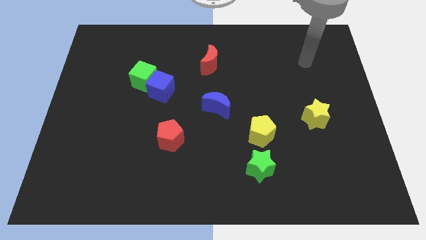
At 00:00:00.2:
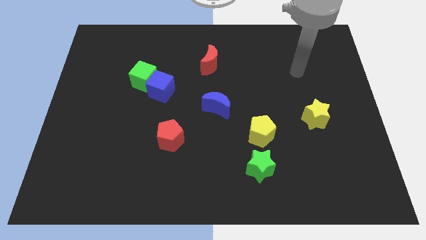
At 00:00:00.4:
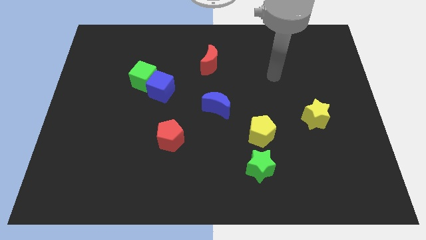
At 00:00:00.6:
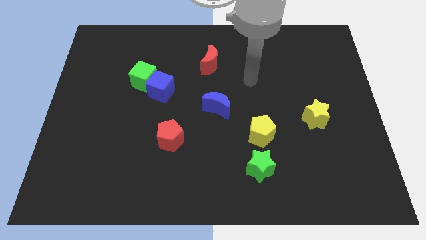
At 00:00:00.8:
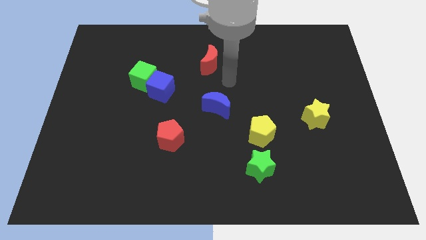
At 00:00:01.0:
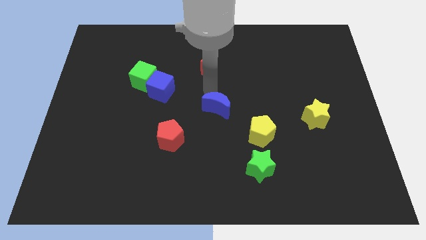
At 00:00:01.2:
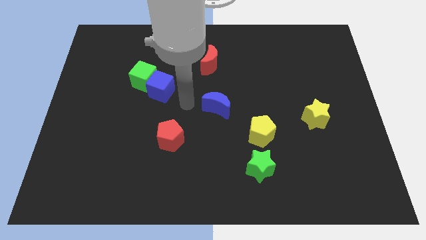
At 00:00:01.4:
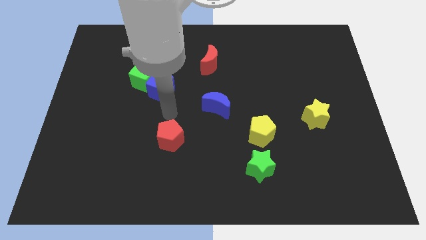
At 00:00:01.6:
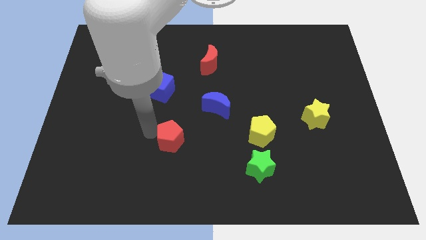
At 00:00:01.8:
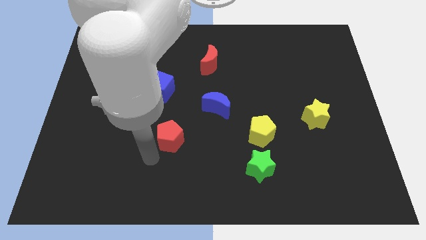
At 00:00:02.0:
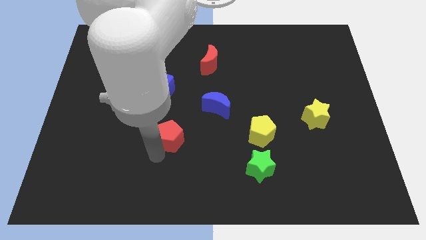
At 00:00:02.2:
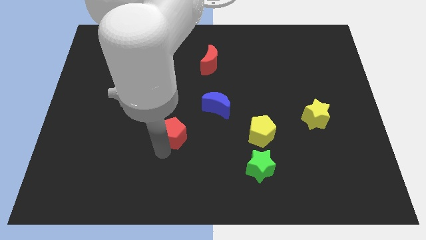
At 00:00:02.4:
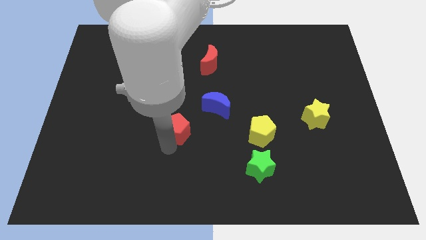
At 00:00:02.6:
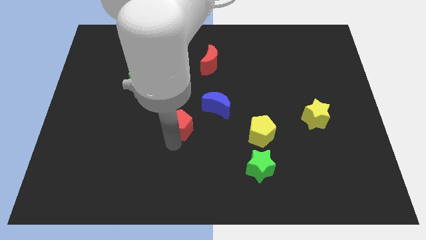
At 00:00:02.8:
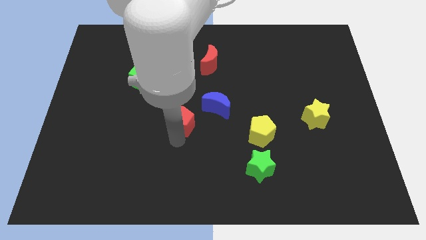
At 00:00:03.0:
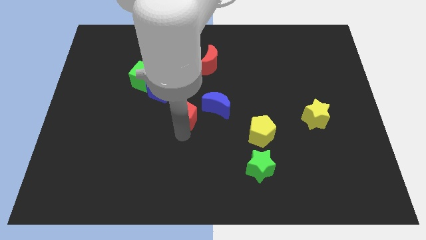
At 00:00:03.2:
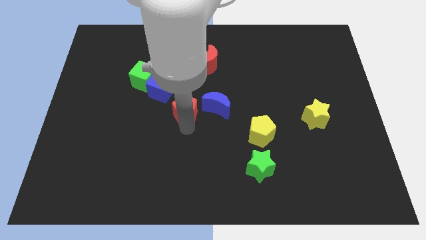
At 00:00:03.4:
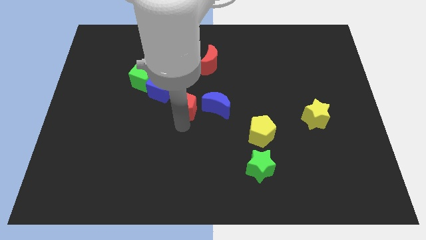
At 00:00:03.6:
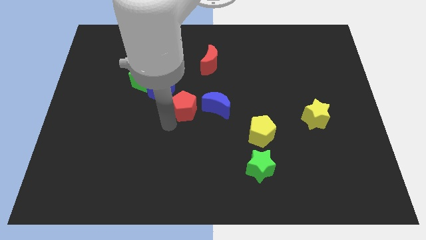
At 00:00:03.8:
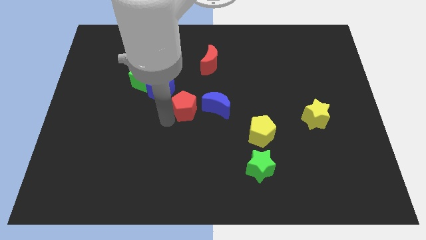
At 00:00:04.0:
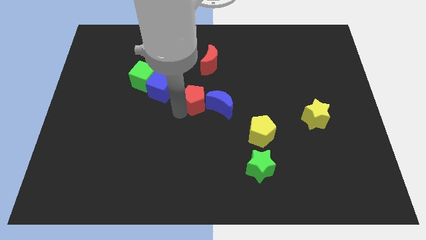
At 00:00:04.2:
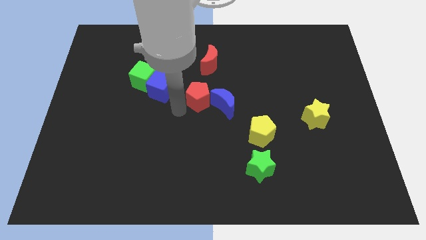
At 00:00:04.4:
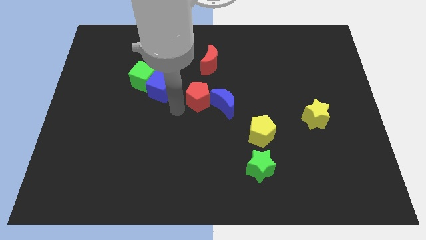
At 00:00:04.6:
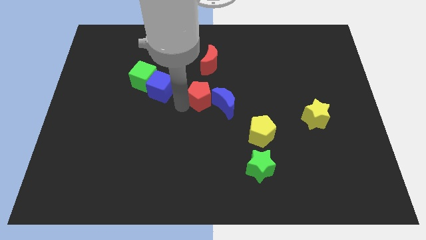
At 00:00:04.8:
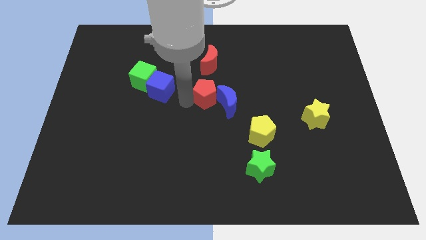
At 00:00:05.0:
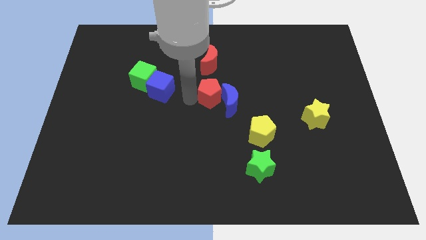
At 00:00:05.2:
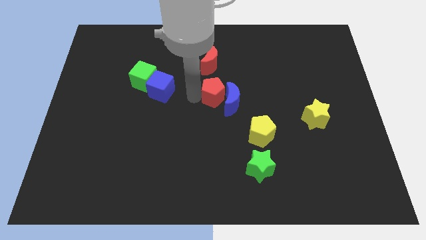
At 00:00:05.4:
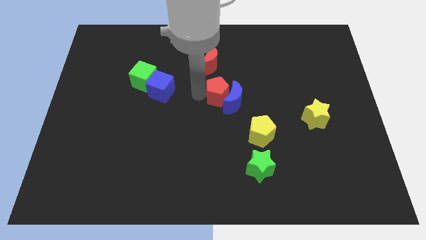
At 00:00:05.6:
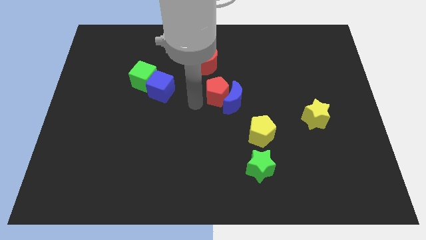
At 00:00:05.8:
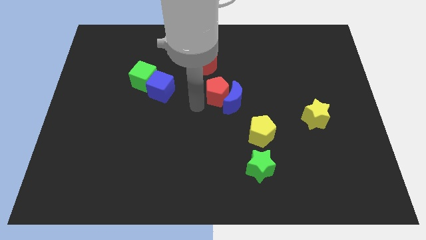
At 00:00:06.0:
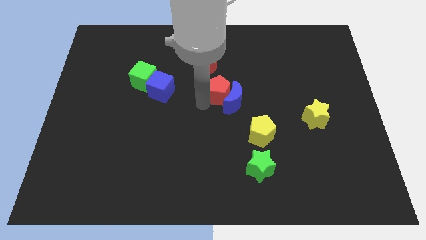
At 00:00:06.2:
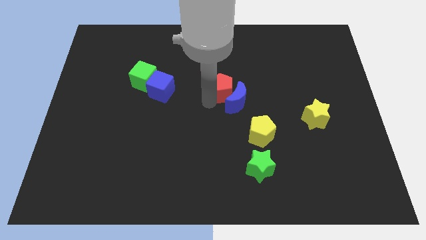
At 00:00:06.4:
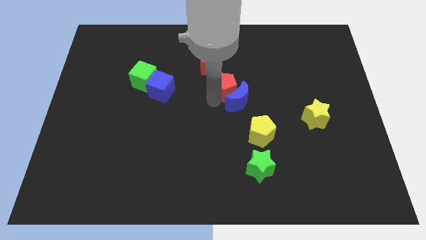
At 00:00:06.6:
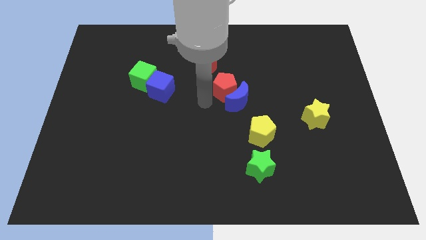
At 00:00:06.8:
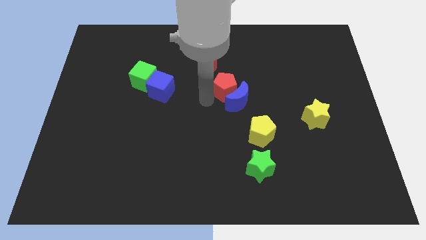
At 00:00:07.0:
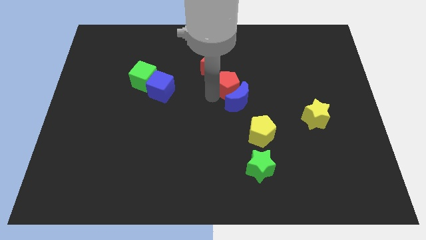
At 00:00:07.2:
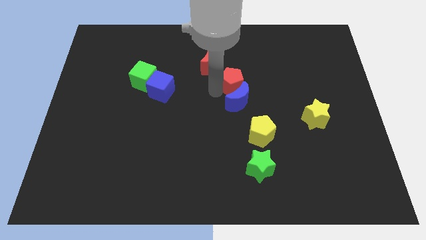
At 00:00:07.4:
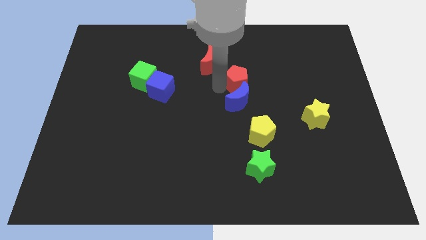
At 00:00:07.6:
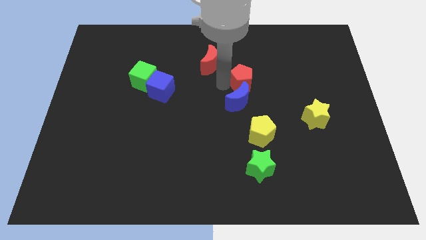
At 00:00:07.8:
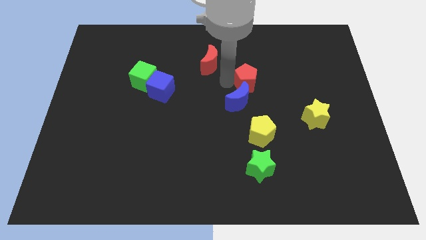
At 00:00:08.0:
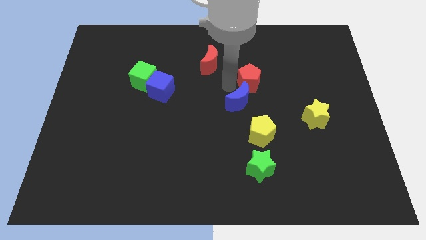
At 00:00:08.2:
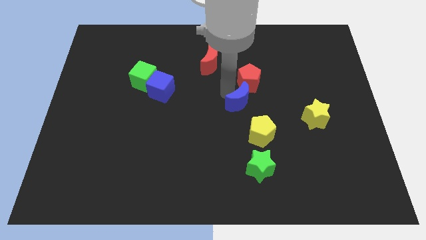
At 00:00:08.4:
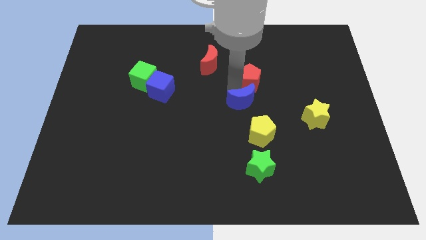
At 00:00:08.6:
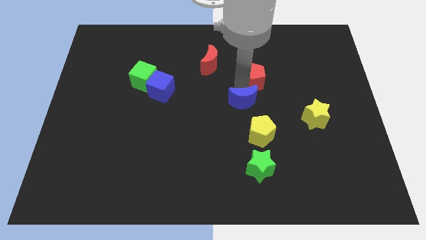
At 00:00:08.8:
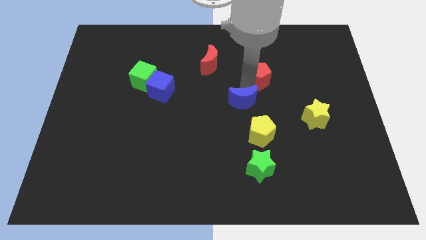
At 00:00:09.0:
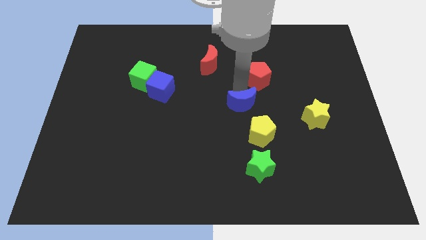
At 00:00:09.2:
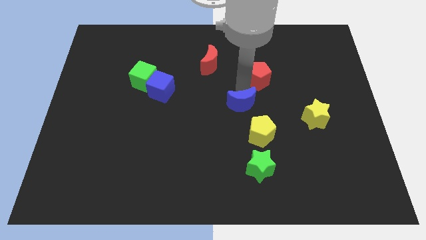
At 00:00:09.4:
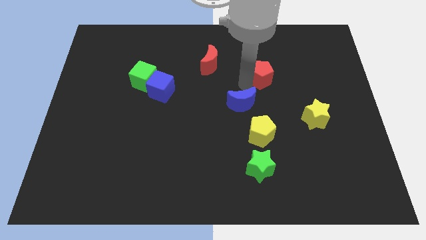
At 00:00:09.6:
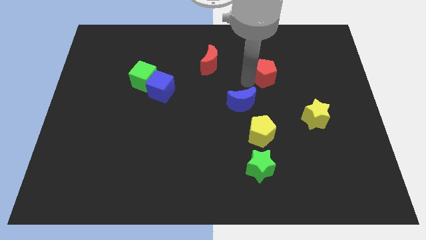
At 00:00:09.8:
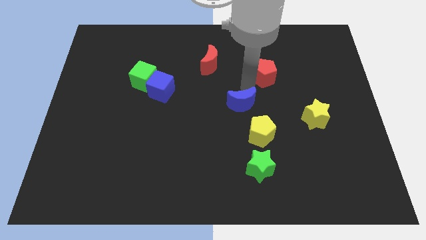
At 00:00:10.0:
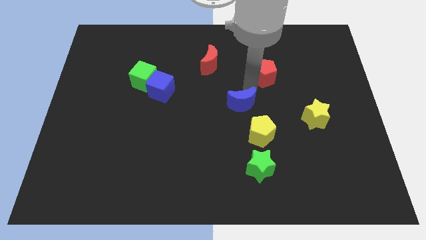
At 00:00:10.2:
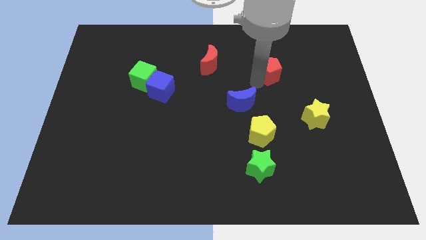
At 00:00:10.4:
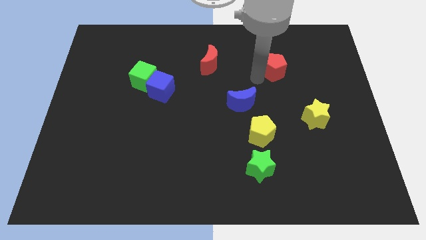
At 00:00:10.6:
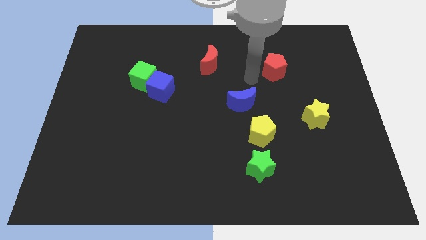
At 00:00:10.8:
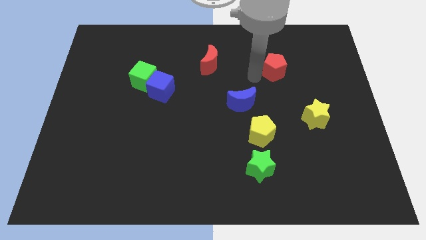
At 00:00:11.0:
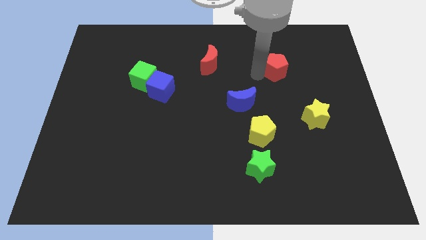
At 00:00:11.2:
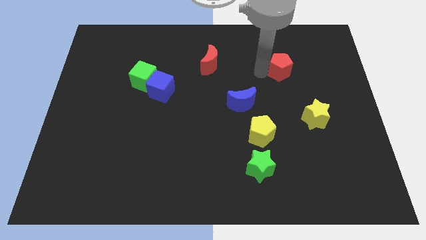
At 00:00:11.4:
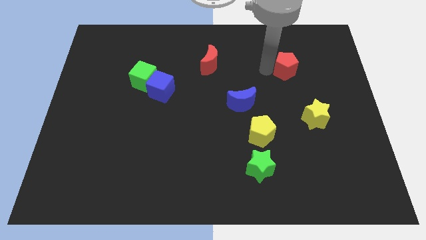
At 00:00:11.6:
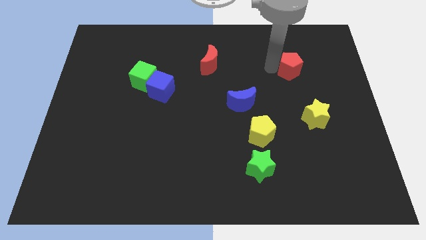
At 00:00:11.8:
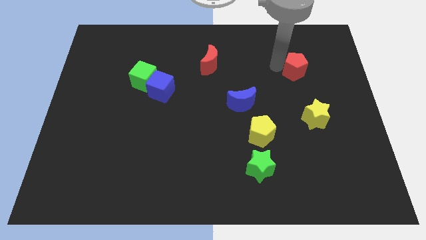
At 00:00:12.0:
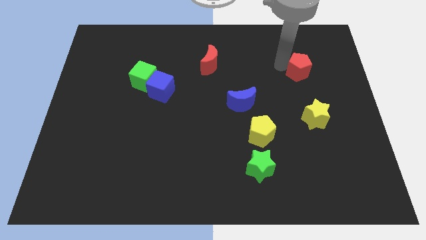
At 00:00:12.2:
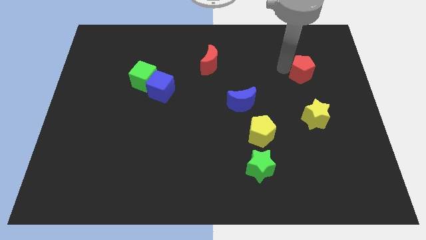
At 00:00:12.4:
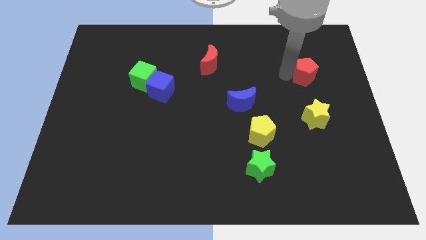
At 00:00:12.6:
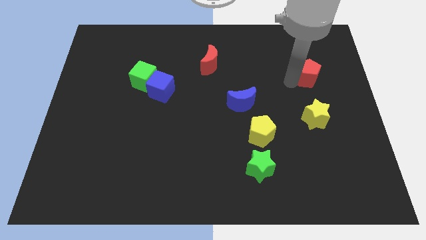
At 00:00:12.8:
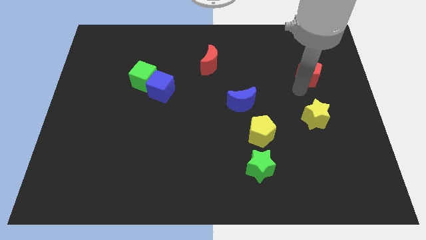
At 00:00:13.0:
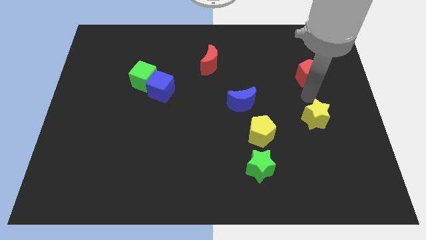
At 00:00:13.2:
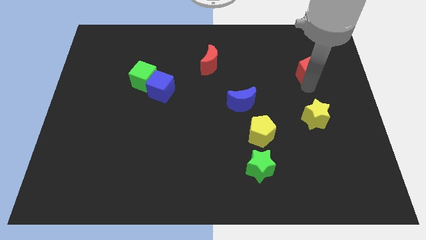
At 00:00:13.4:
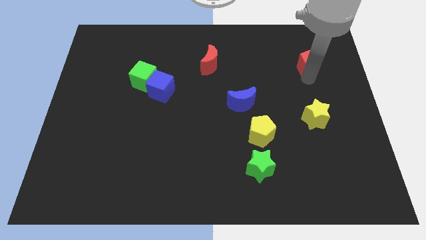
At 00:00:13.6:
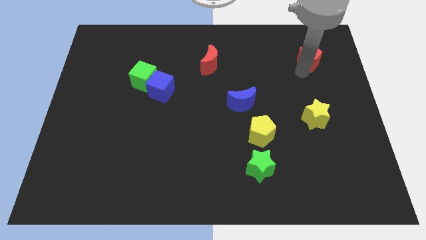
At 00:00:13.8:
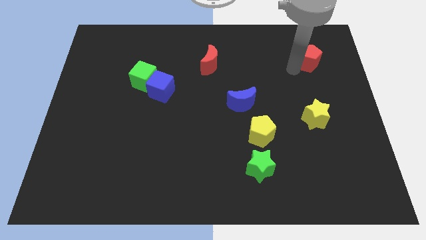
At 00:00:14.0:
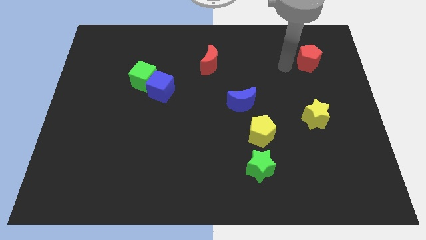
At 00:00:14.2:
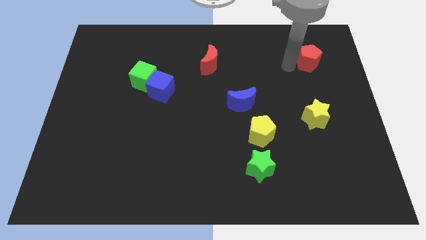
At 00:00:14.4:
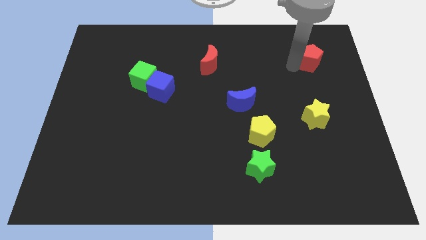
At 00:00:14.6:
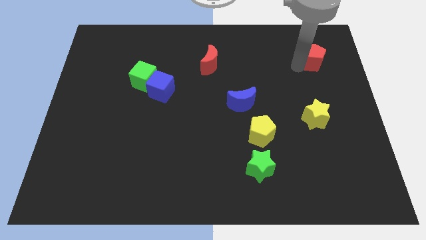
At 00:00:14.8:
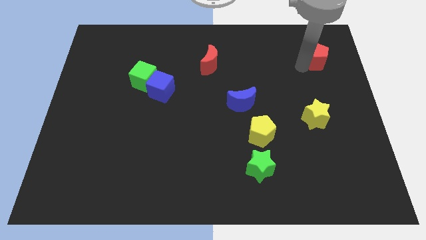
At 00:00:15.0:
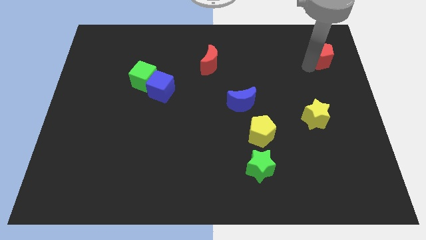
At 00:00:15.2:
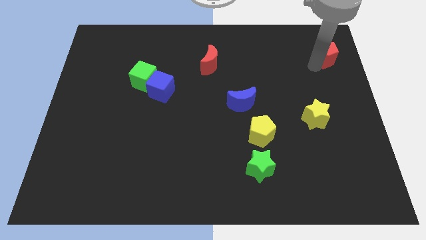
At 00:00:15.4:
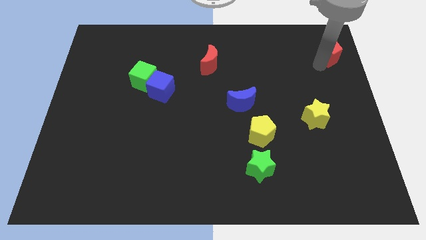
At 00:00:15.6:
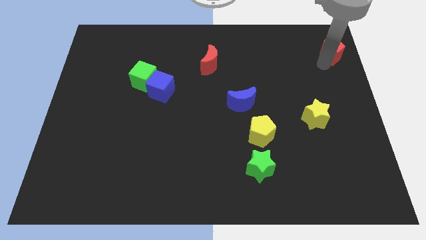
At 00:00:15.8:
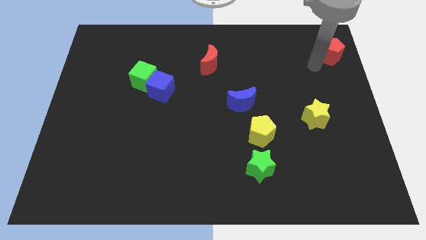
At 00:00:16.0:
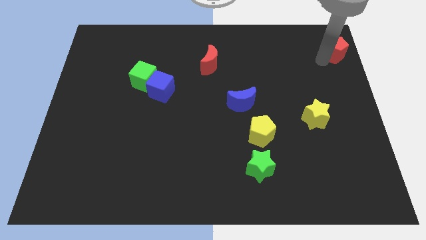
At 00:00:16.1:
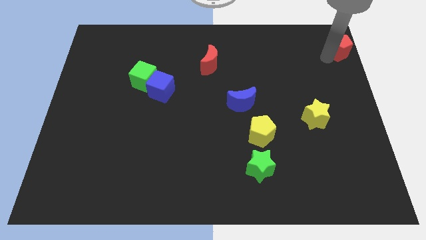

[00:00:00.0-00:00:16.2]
push the red pentagon to the upper right corner
